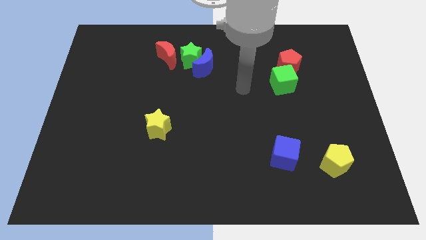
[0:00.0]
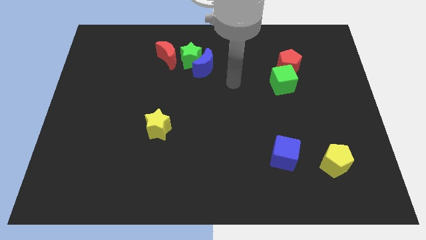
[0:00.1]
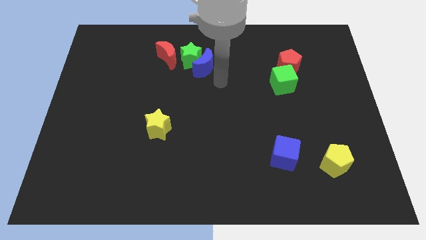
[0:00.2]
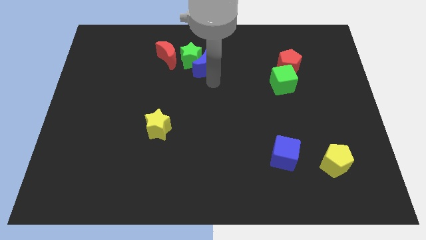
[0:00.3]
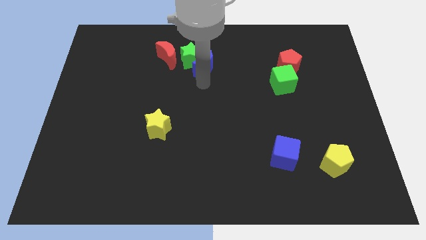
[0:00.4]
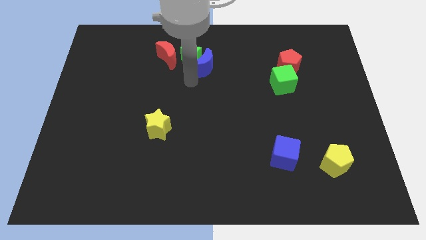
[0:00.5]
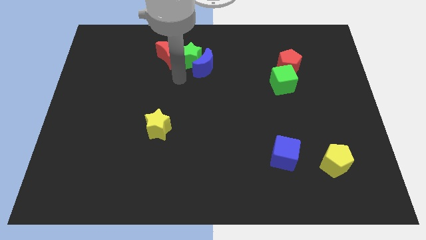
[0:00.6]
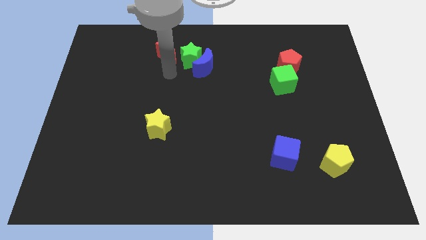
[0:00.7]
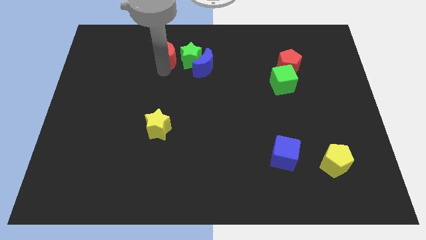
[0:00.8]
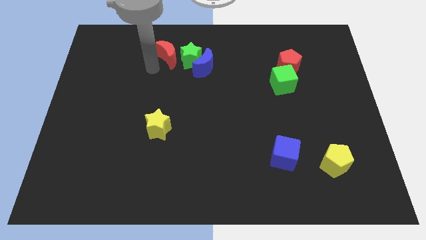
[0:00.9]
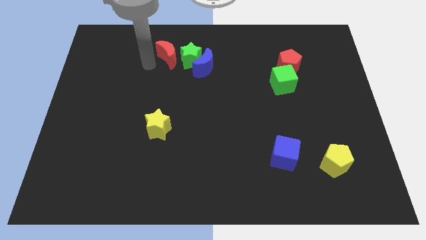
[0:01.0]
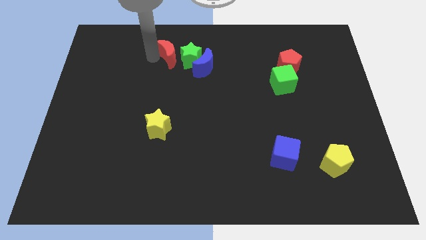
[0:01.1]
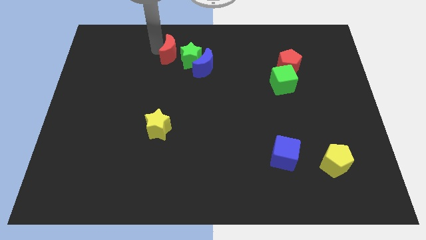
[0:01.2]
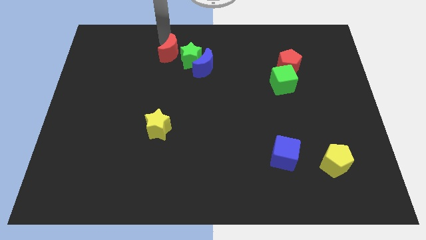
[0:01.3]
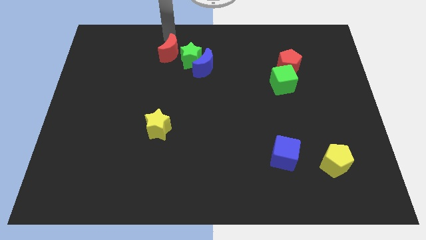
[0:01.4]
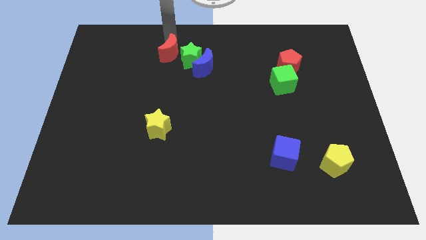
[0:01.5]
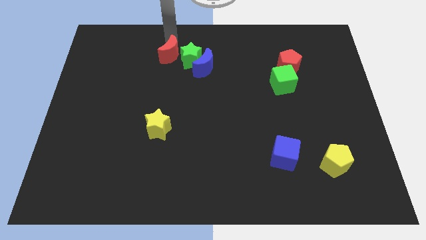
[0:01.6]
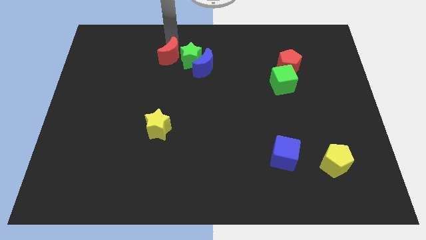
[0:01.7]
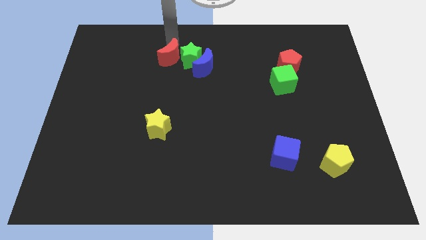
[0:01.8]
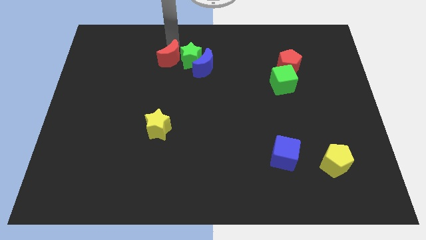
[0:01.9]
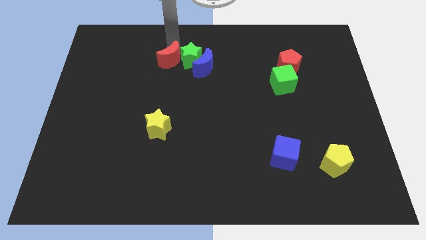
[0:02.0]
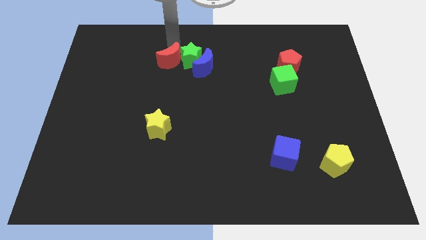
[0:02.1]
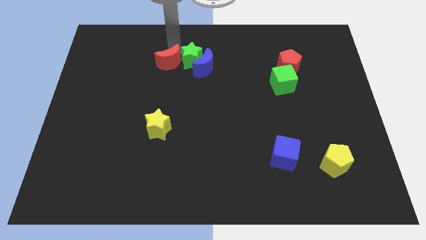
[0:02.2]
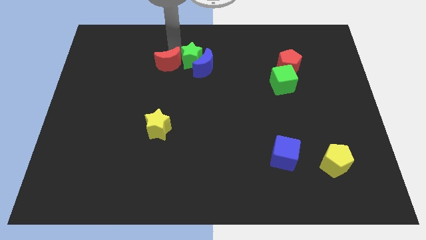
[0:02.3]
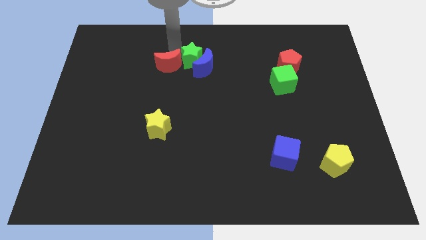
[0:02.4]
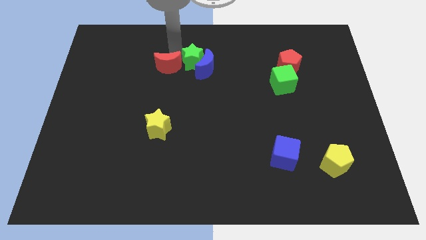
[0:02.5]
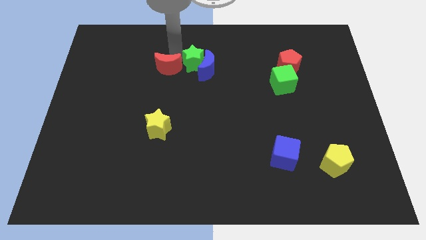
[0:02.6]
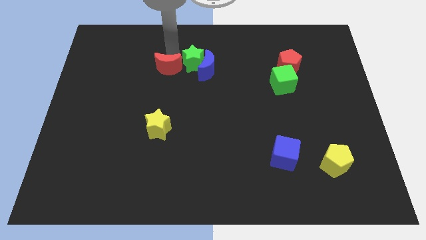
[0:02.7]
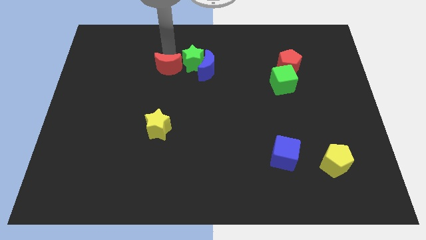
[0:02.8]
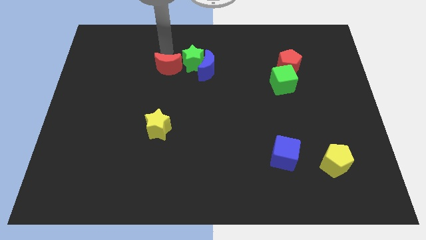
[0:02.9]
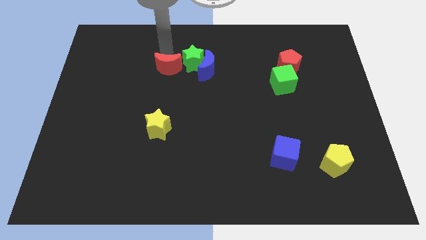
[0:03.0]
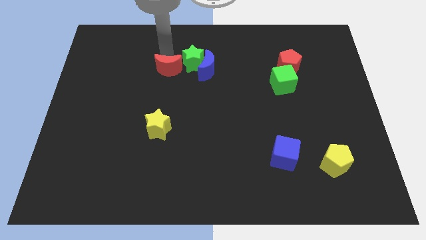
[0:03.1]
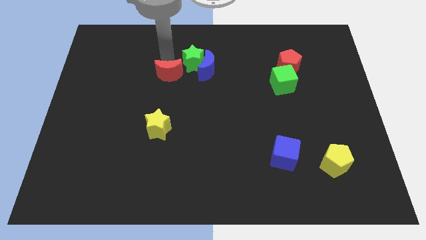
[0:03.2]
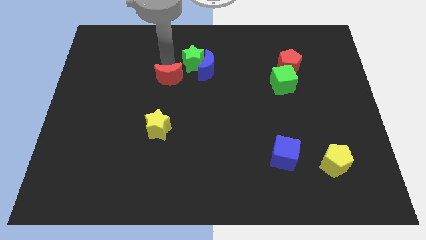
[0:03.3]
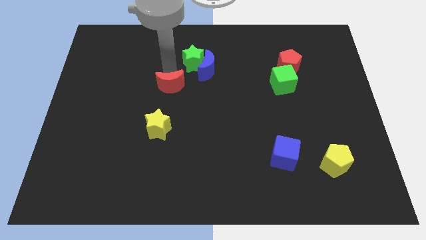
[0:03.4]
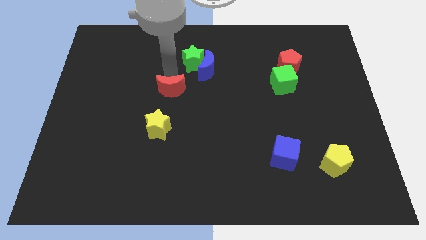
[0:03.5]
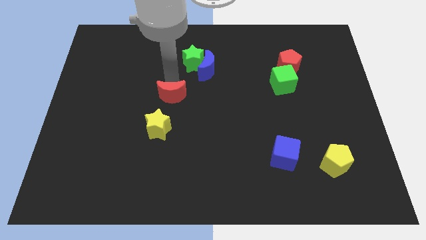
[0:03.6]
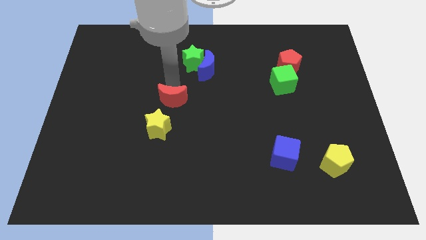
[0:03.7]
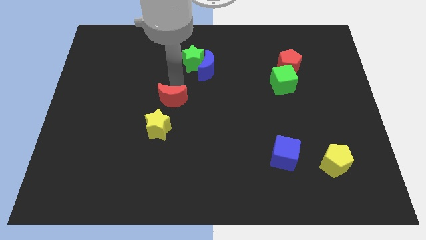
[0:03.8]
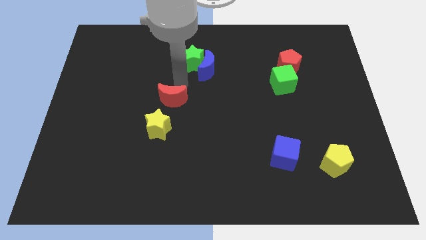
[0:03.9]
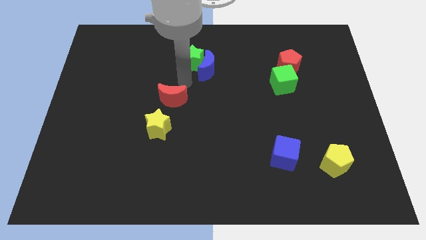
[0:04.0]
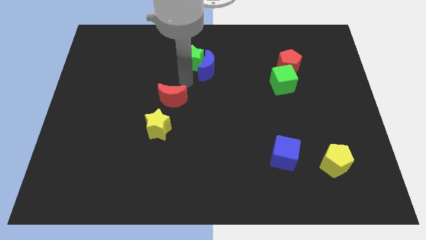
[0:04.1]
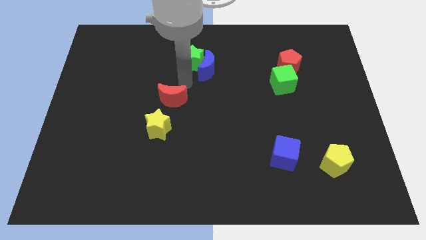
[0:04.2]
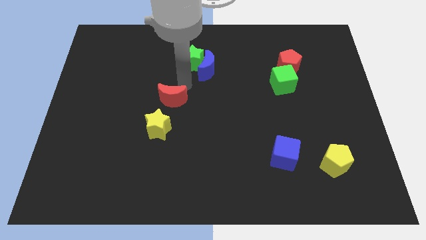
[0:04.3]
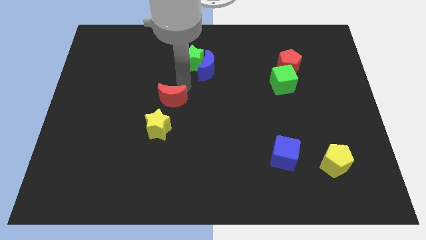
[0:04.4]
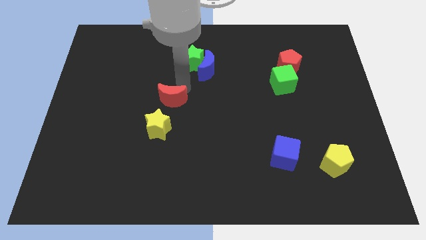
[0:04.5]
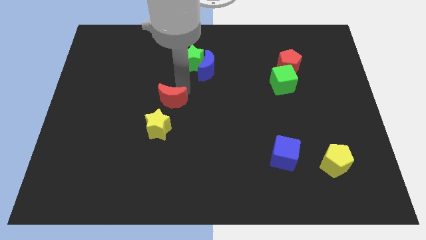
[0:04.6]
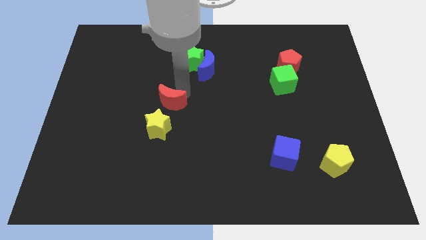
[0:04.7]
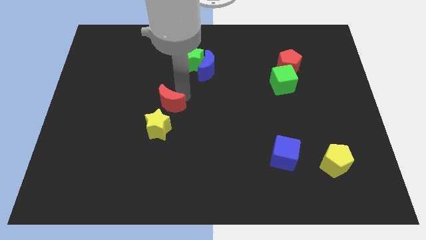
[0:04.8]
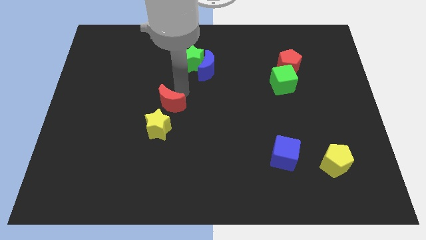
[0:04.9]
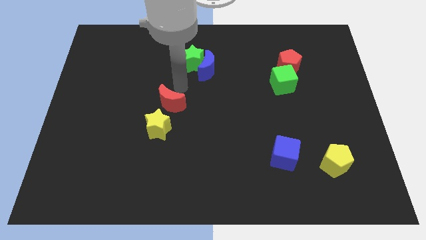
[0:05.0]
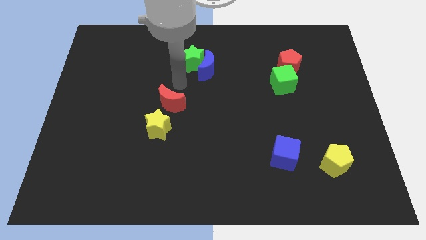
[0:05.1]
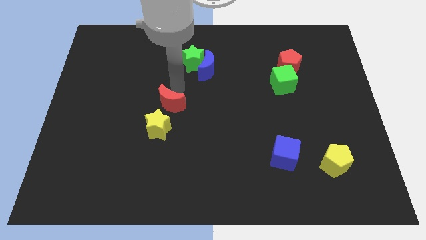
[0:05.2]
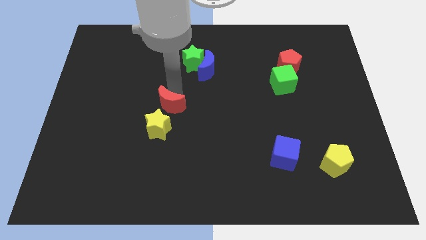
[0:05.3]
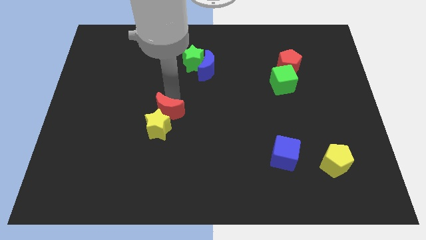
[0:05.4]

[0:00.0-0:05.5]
move the red moon towards the yellow star

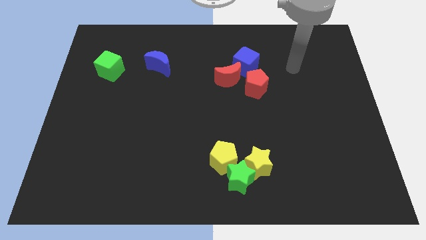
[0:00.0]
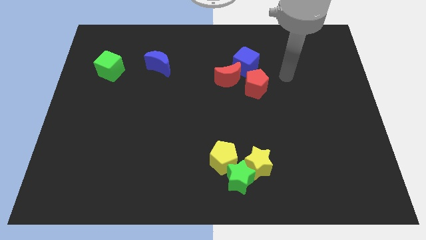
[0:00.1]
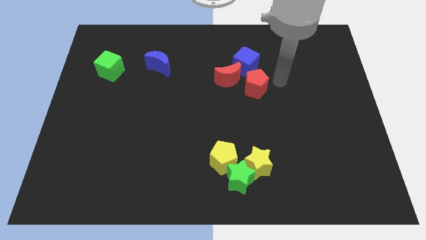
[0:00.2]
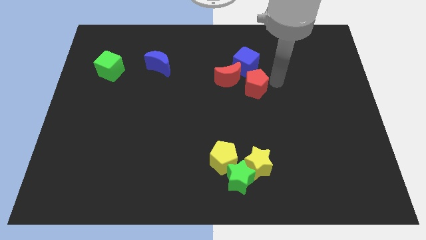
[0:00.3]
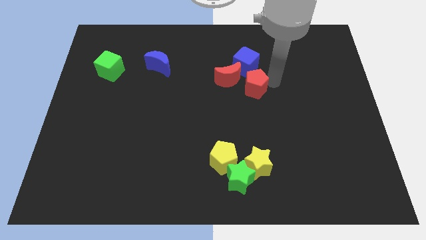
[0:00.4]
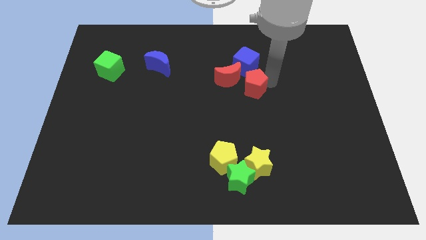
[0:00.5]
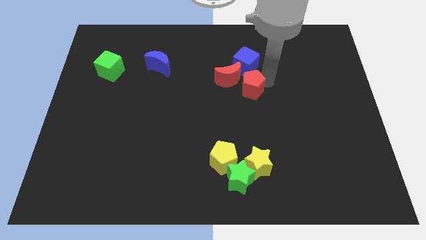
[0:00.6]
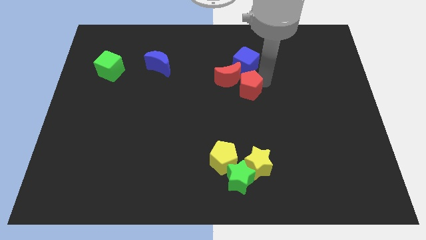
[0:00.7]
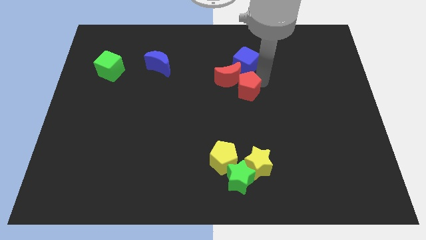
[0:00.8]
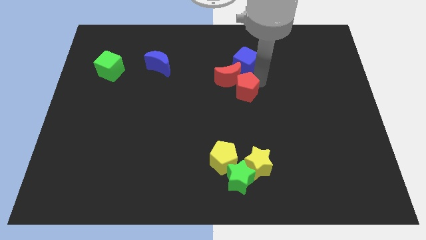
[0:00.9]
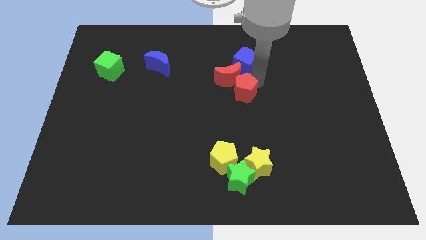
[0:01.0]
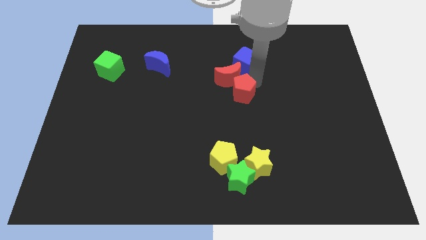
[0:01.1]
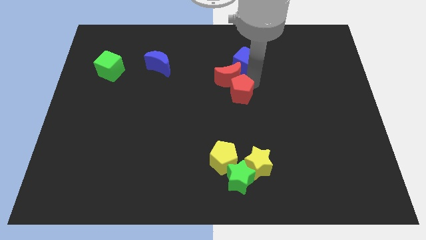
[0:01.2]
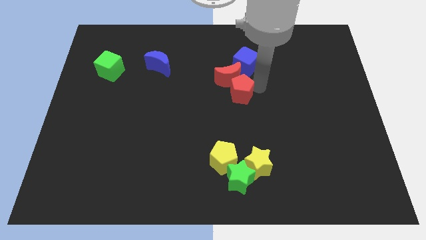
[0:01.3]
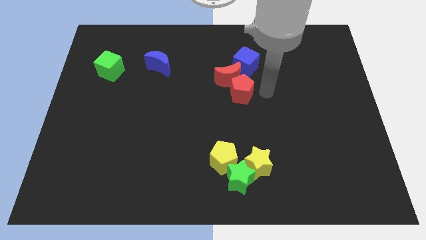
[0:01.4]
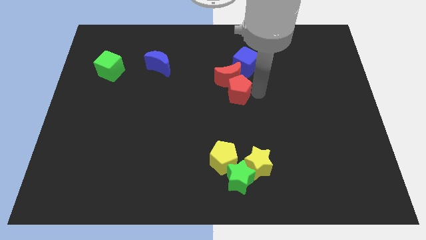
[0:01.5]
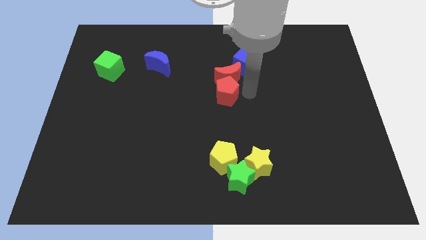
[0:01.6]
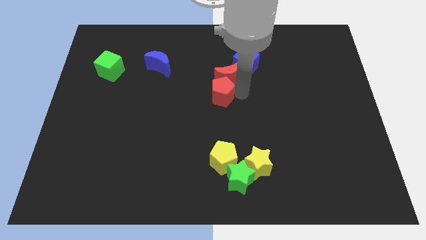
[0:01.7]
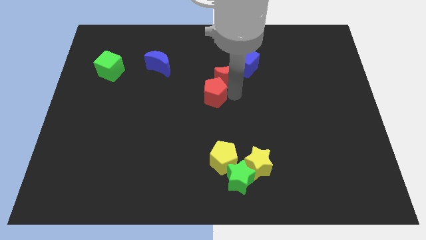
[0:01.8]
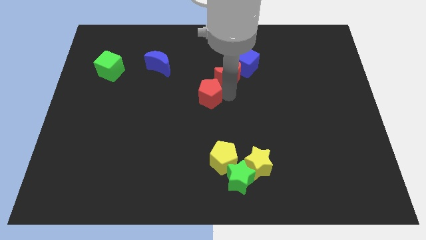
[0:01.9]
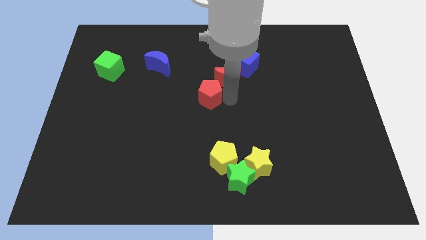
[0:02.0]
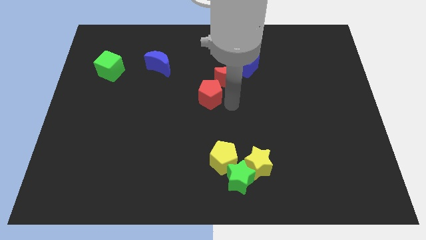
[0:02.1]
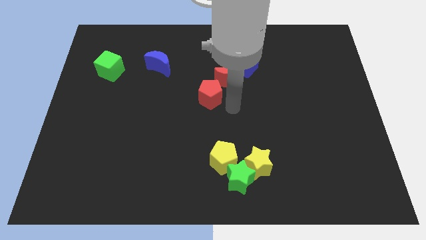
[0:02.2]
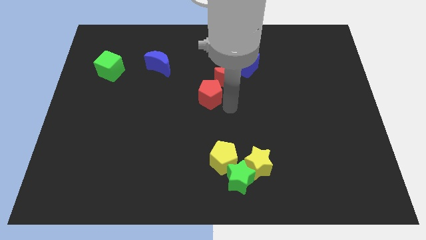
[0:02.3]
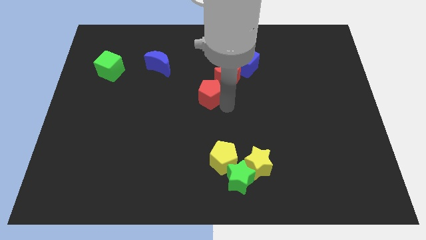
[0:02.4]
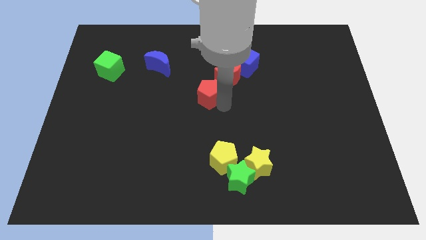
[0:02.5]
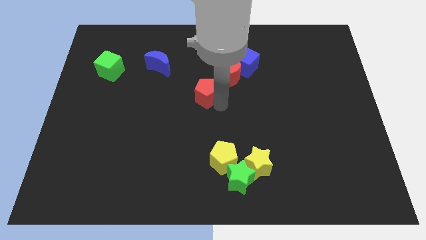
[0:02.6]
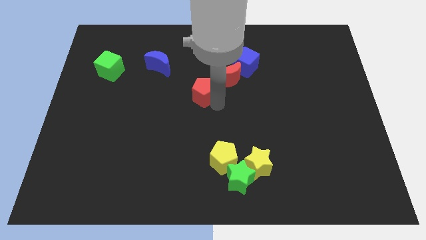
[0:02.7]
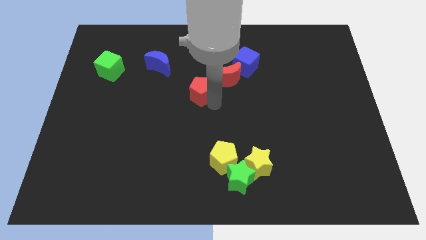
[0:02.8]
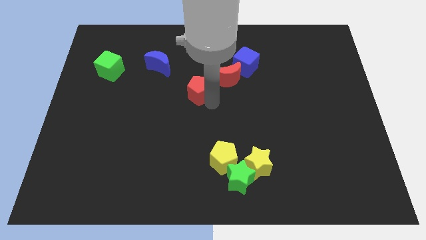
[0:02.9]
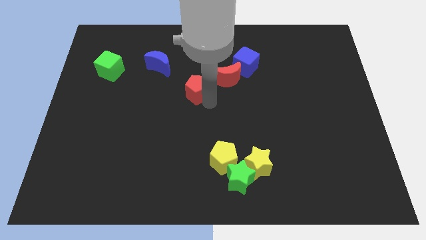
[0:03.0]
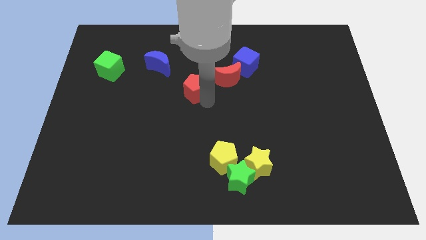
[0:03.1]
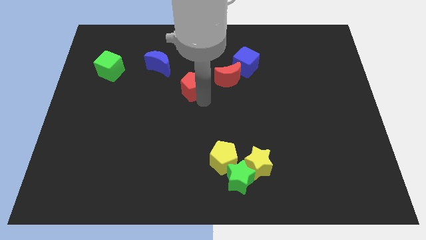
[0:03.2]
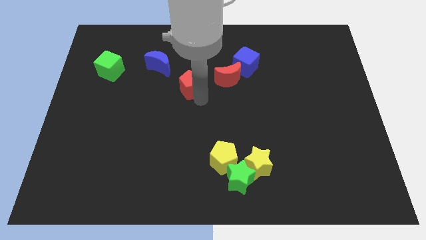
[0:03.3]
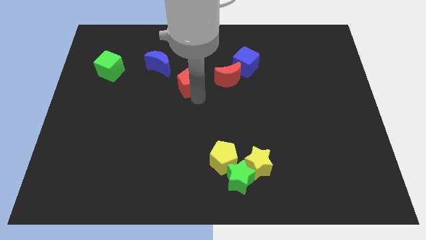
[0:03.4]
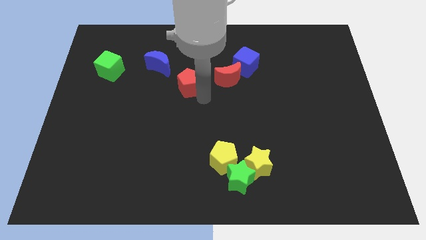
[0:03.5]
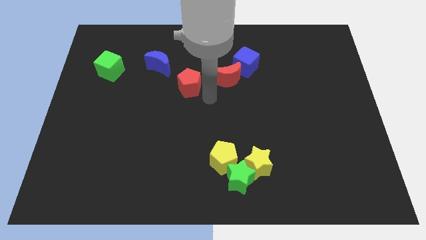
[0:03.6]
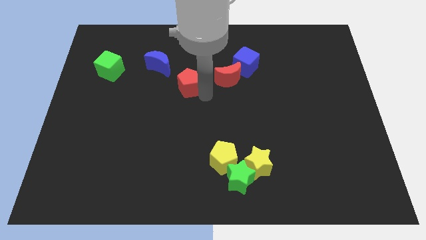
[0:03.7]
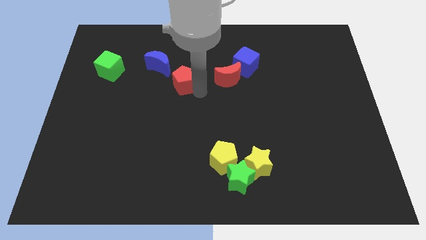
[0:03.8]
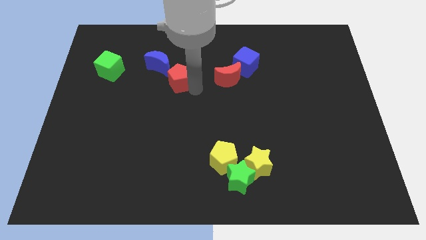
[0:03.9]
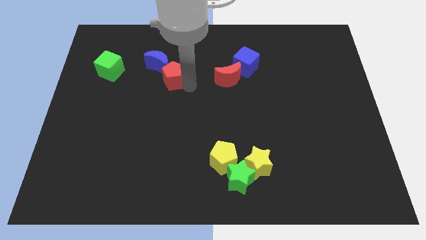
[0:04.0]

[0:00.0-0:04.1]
put the red pentagon to the blue moon
